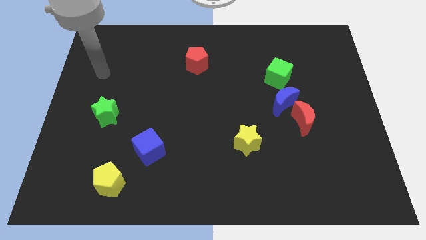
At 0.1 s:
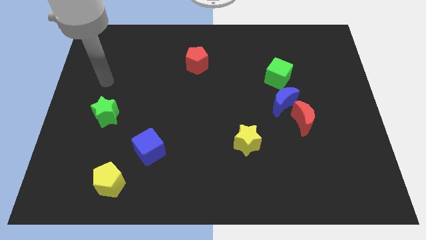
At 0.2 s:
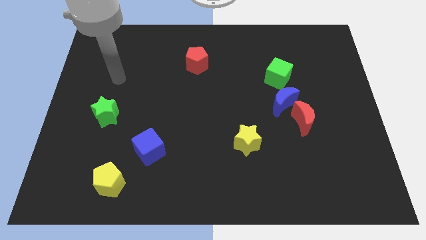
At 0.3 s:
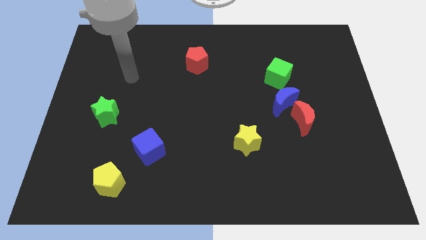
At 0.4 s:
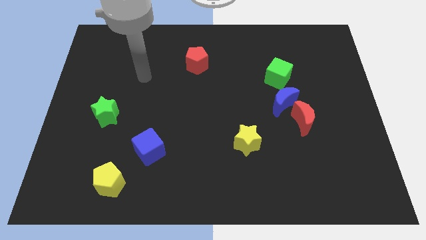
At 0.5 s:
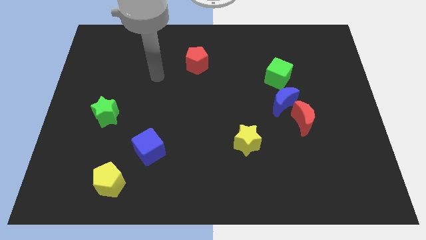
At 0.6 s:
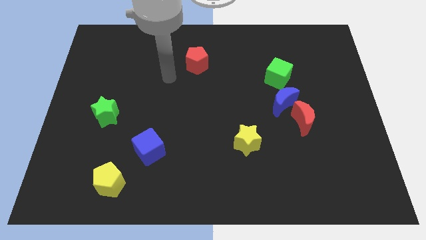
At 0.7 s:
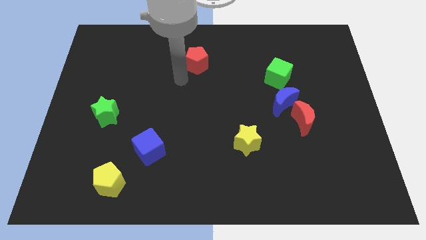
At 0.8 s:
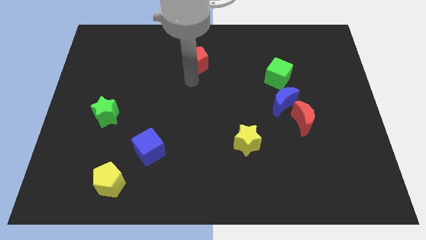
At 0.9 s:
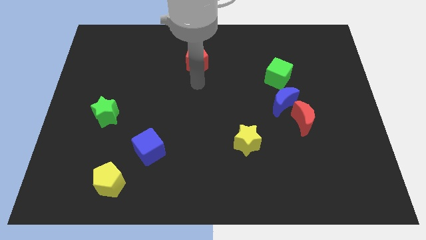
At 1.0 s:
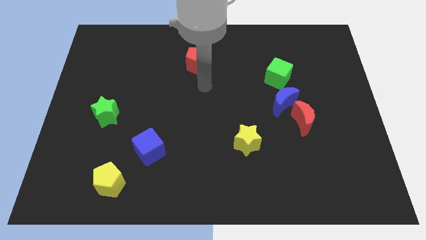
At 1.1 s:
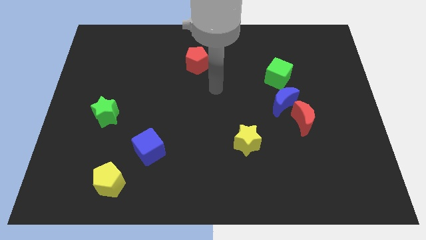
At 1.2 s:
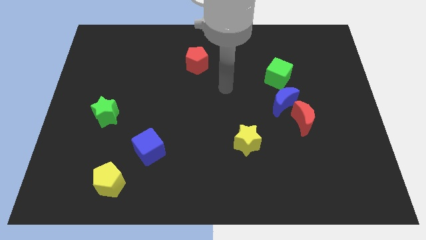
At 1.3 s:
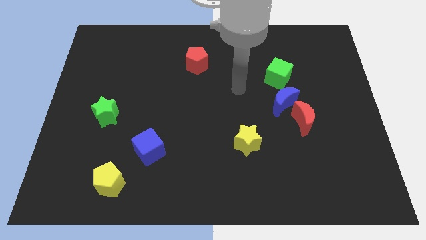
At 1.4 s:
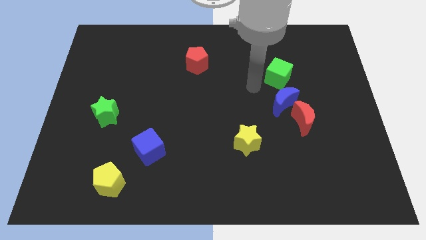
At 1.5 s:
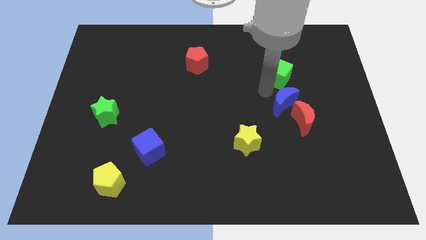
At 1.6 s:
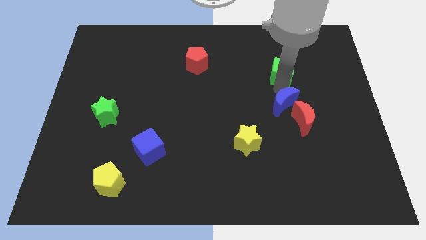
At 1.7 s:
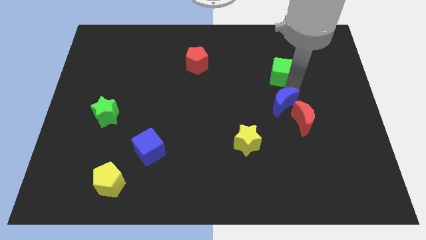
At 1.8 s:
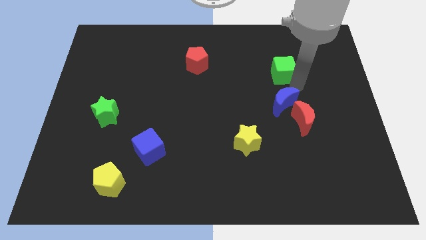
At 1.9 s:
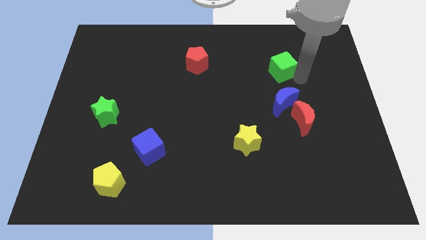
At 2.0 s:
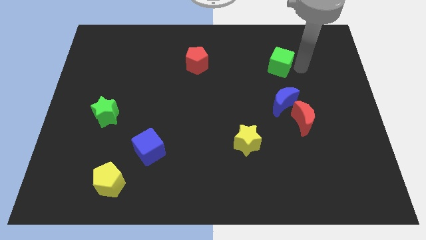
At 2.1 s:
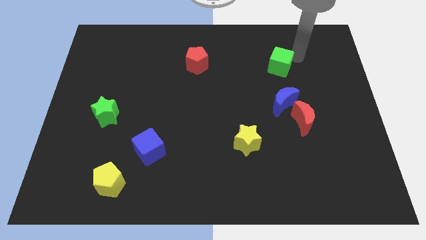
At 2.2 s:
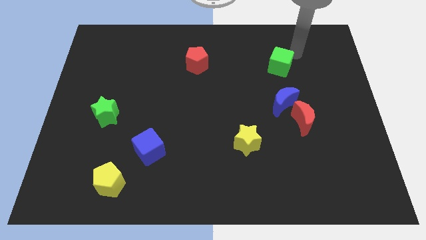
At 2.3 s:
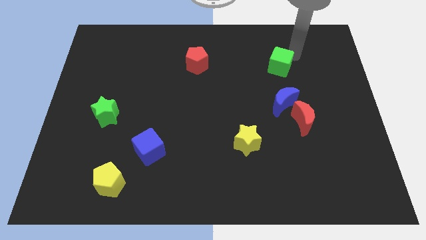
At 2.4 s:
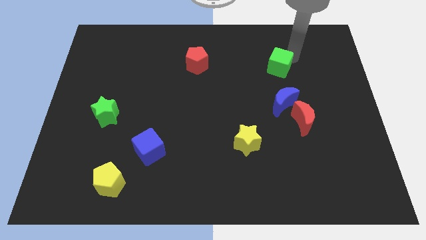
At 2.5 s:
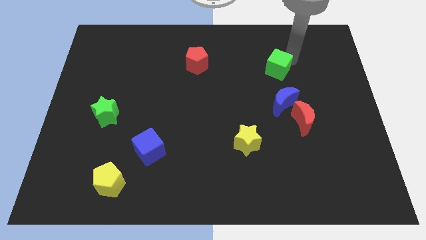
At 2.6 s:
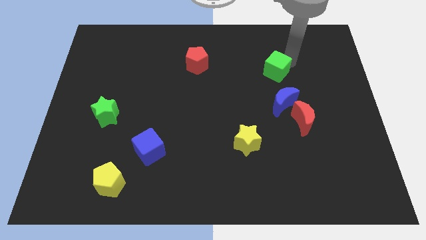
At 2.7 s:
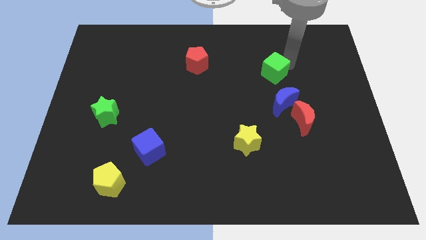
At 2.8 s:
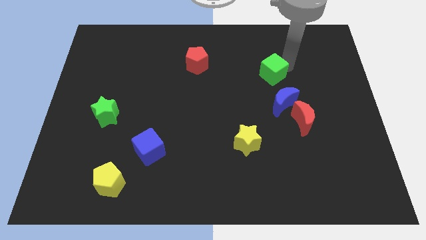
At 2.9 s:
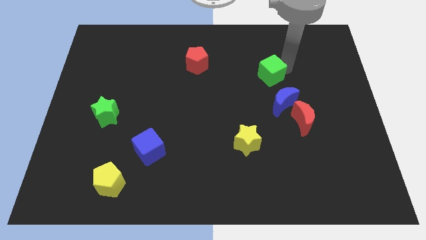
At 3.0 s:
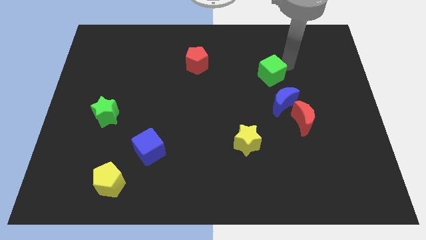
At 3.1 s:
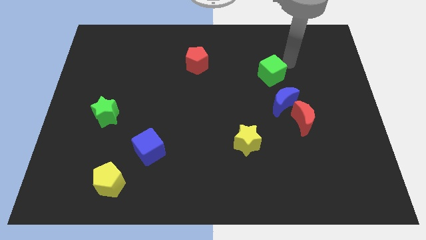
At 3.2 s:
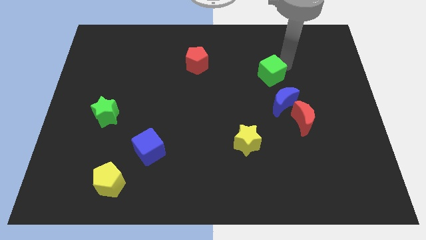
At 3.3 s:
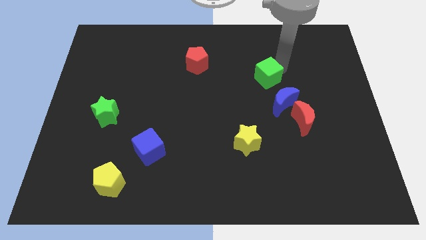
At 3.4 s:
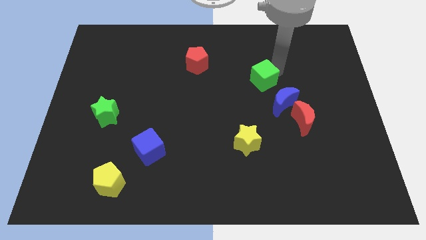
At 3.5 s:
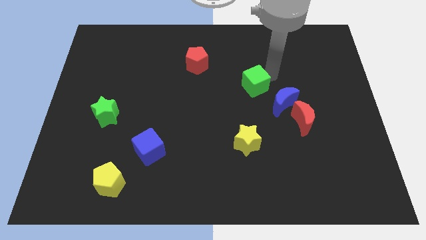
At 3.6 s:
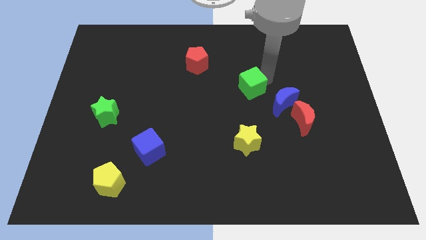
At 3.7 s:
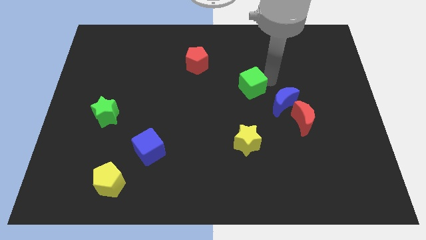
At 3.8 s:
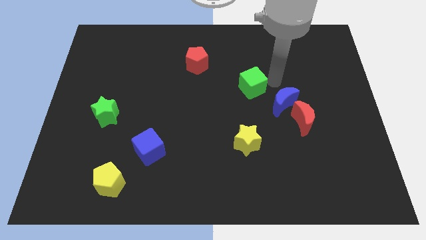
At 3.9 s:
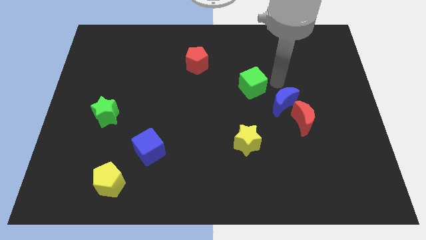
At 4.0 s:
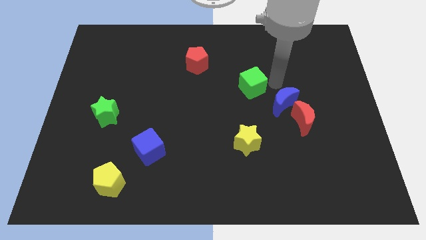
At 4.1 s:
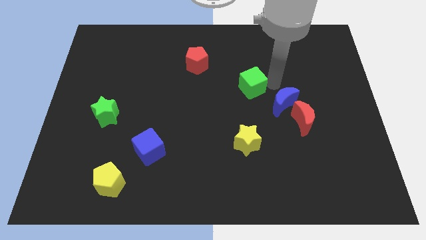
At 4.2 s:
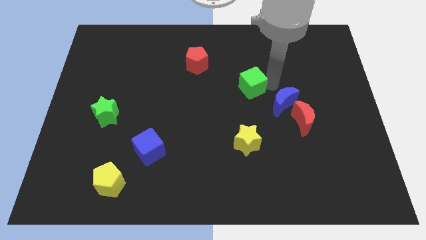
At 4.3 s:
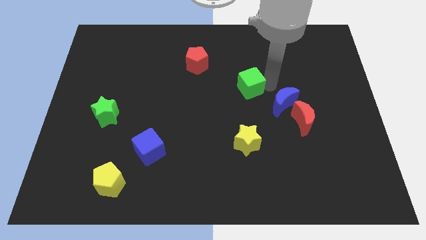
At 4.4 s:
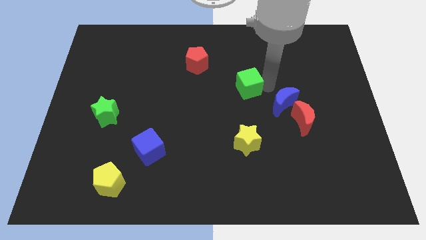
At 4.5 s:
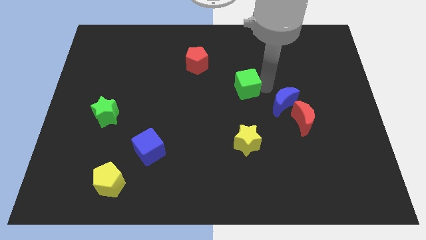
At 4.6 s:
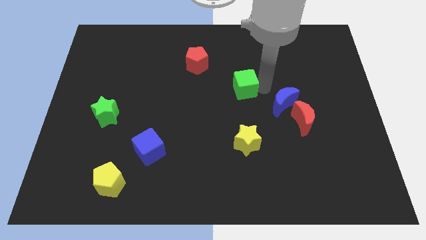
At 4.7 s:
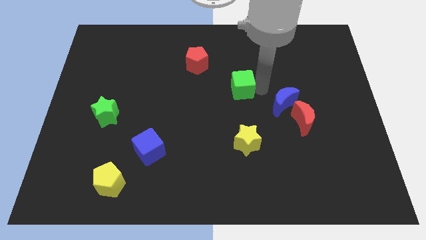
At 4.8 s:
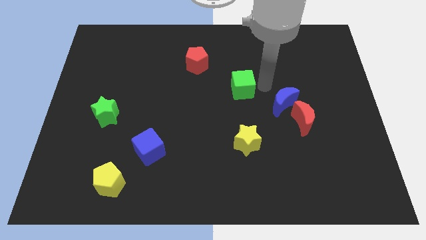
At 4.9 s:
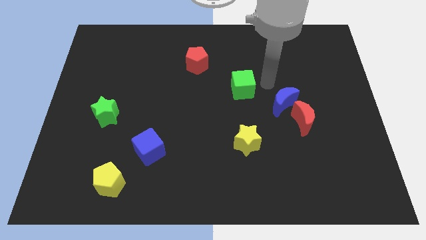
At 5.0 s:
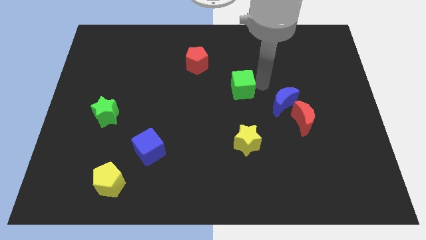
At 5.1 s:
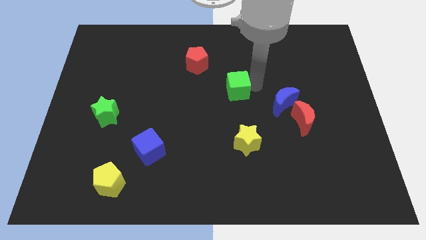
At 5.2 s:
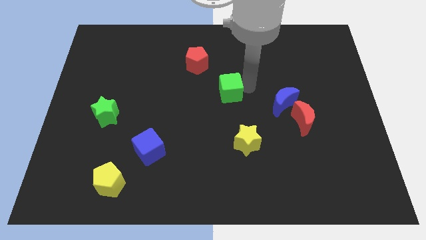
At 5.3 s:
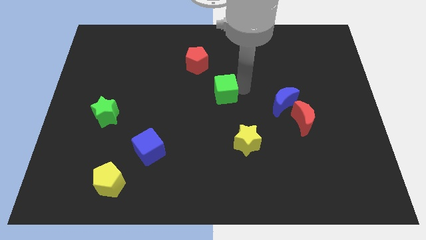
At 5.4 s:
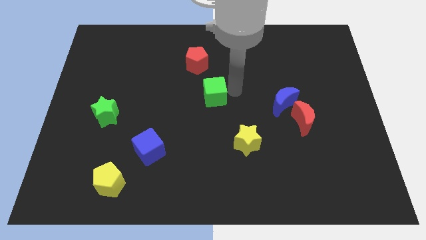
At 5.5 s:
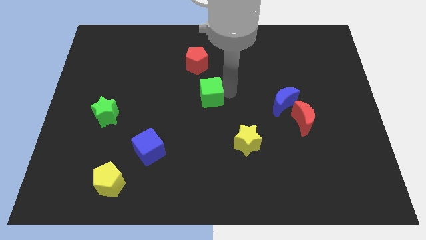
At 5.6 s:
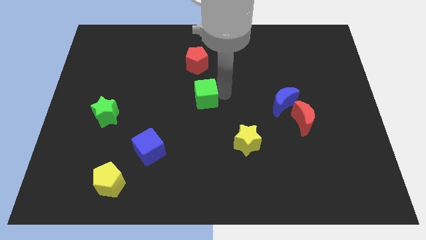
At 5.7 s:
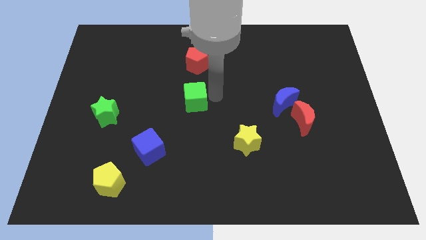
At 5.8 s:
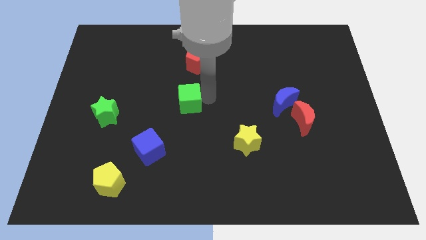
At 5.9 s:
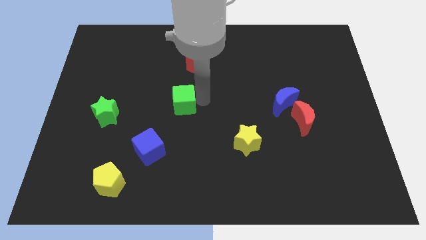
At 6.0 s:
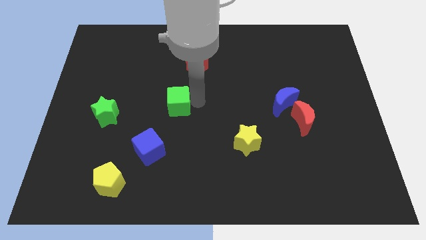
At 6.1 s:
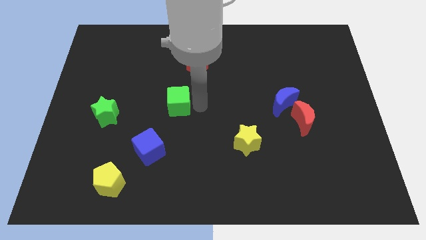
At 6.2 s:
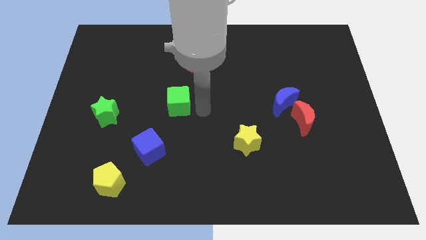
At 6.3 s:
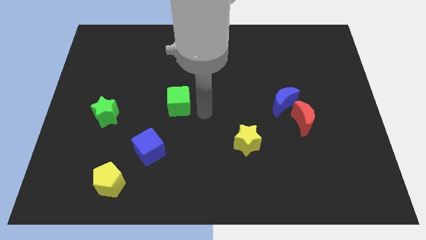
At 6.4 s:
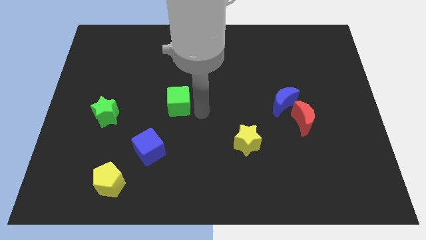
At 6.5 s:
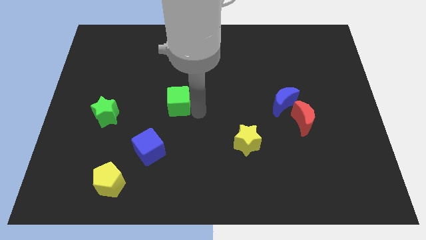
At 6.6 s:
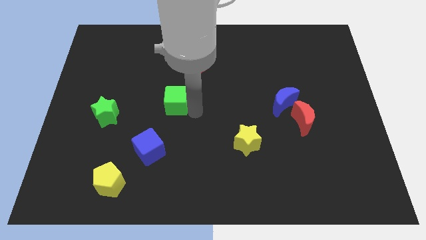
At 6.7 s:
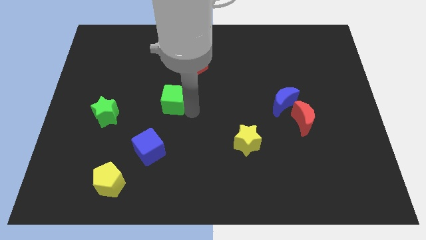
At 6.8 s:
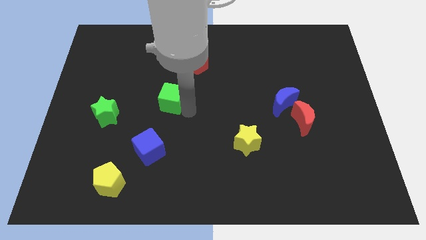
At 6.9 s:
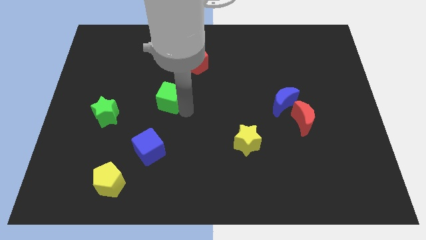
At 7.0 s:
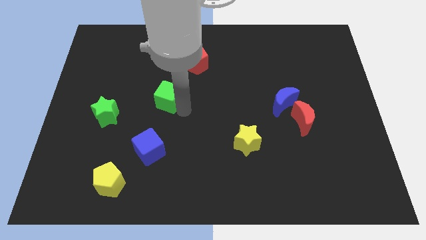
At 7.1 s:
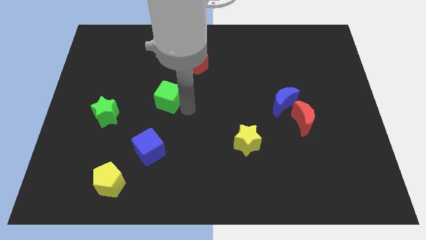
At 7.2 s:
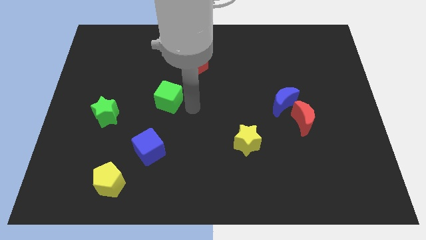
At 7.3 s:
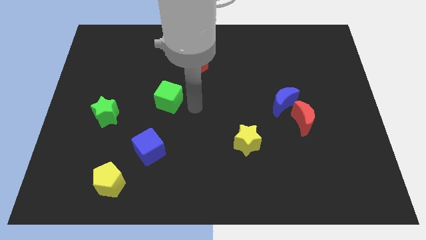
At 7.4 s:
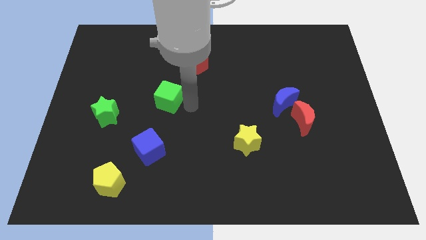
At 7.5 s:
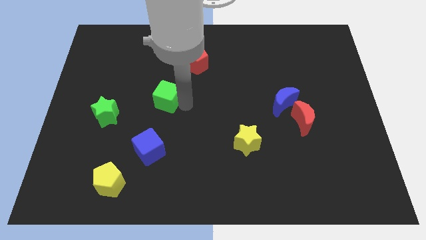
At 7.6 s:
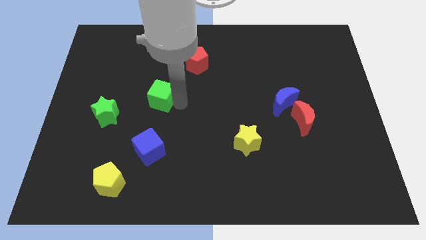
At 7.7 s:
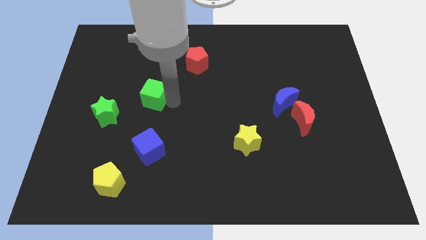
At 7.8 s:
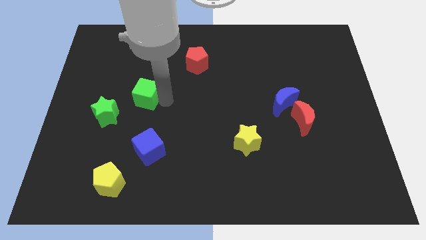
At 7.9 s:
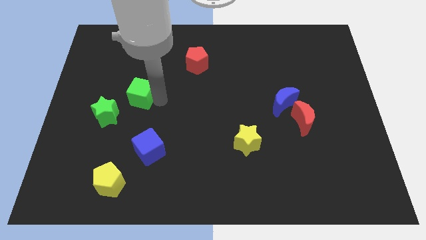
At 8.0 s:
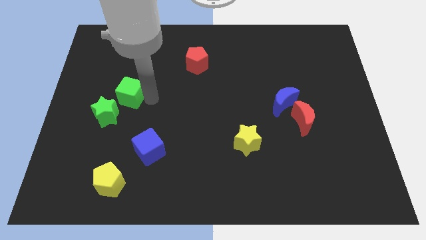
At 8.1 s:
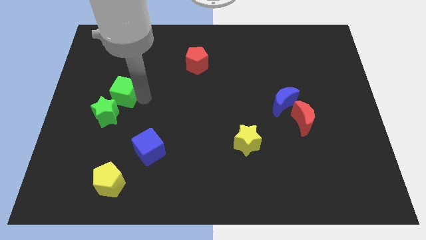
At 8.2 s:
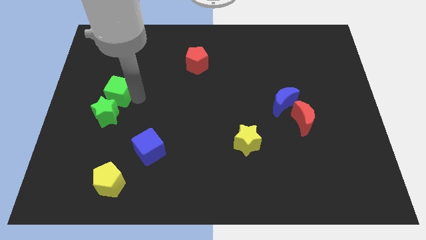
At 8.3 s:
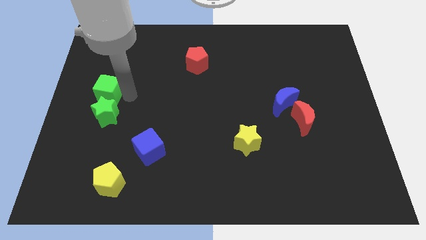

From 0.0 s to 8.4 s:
move the green cube to the center left
